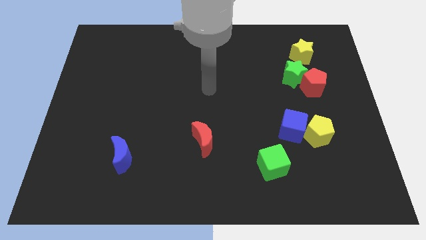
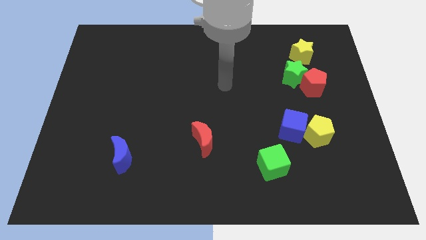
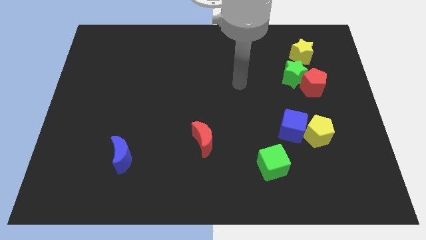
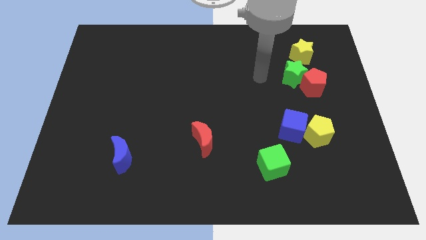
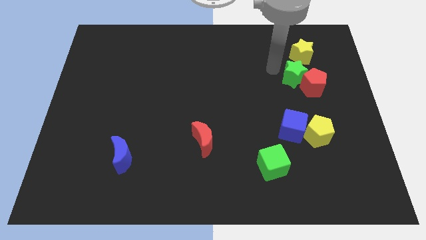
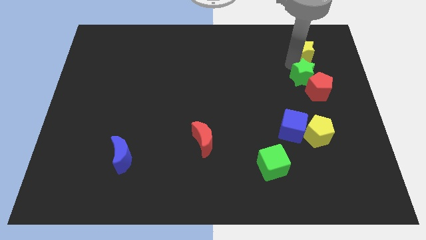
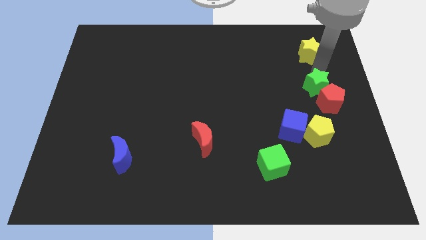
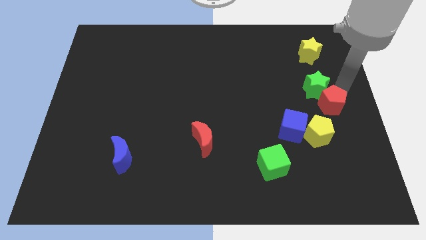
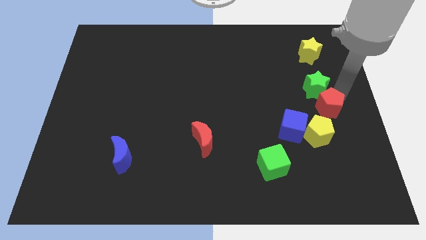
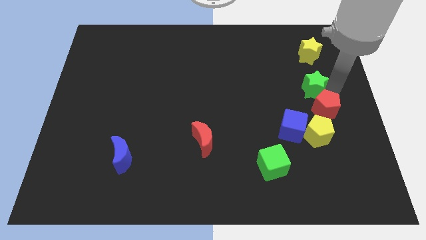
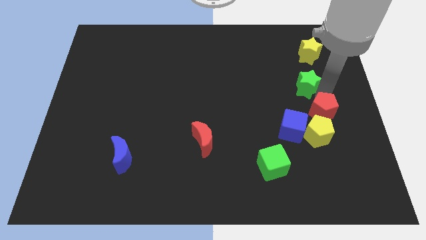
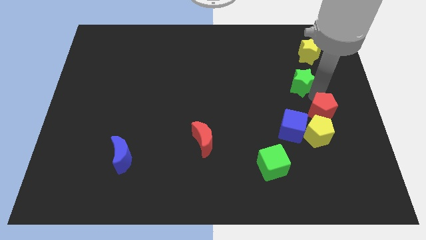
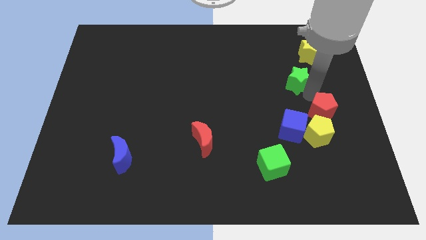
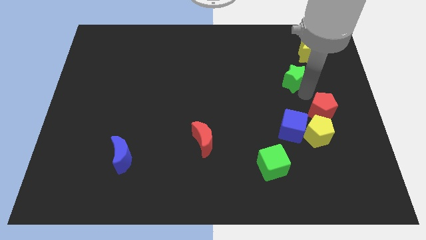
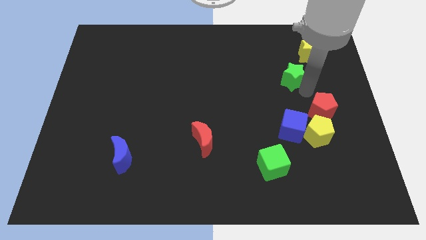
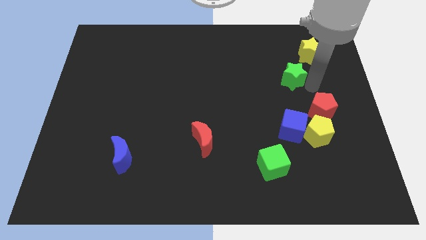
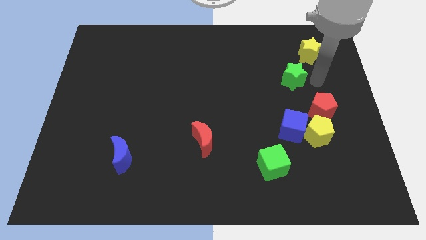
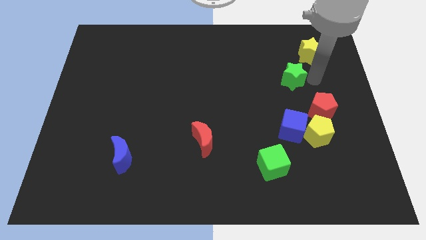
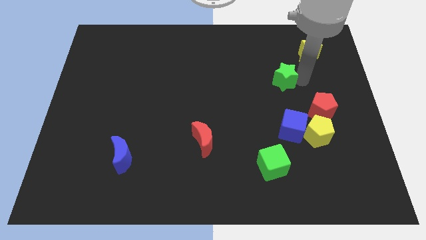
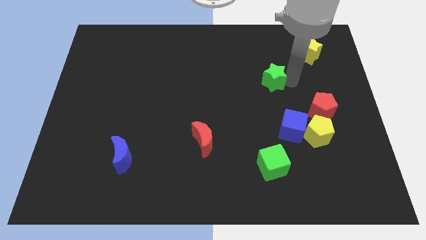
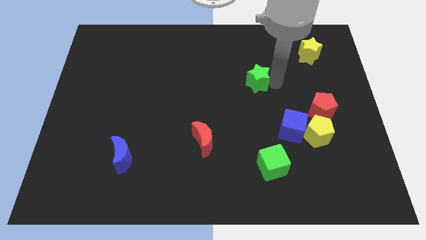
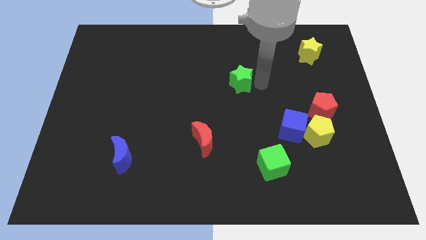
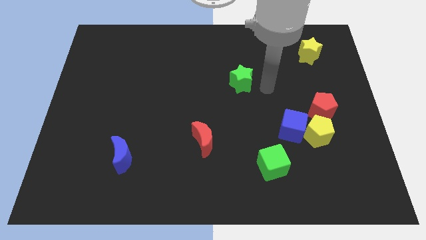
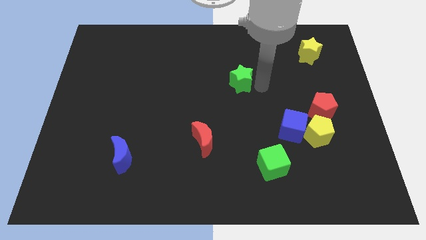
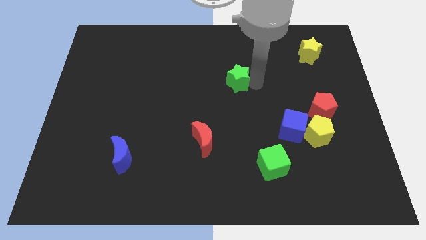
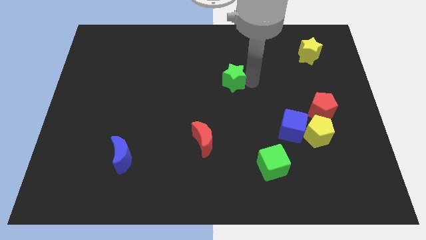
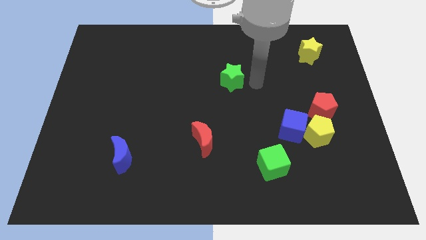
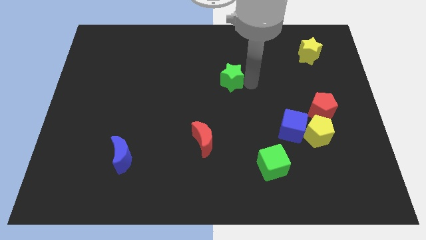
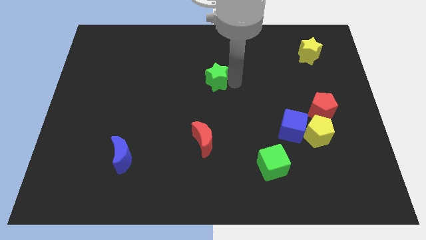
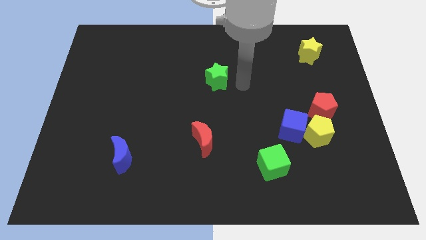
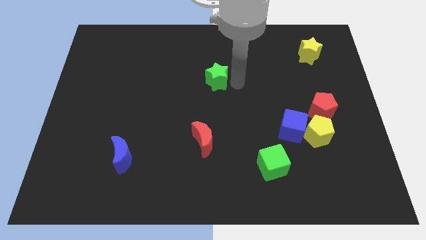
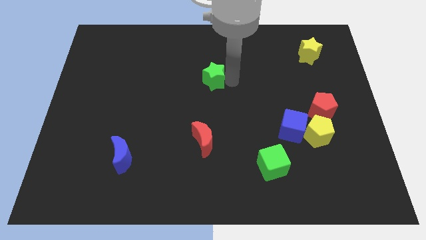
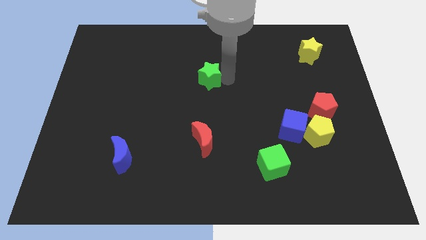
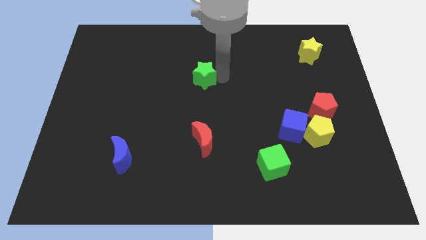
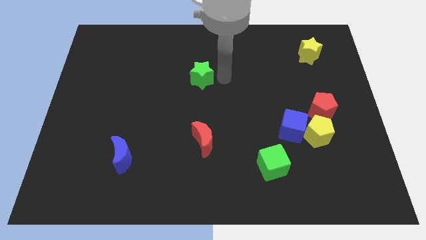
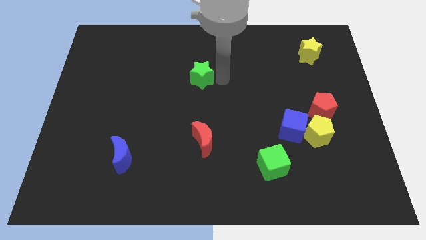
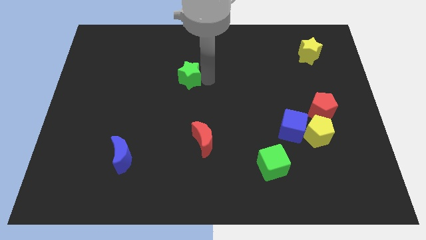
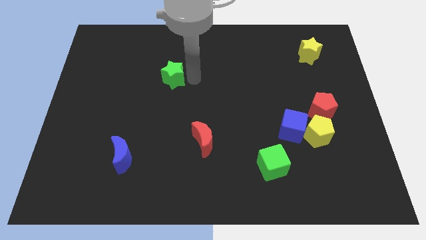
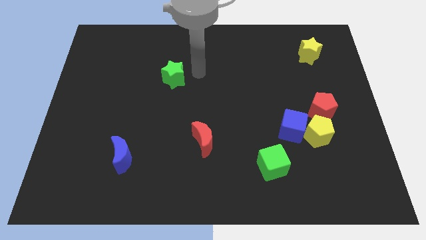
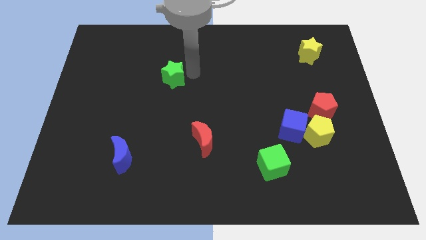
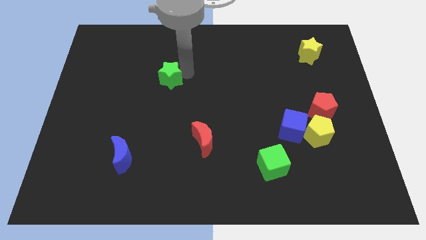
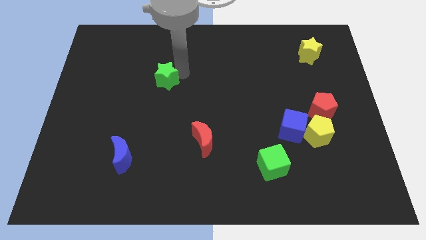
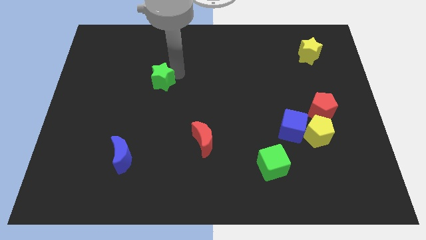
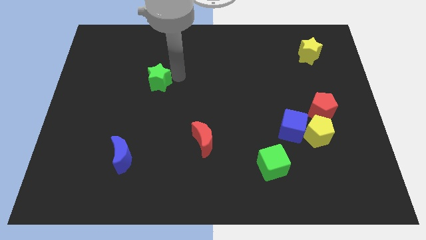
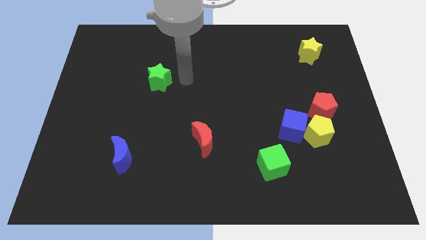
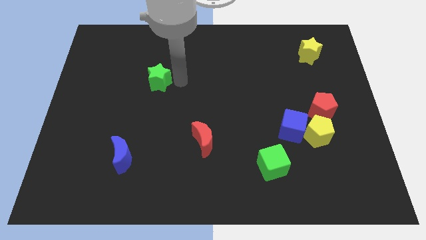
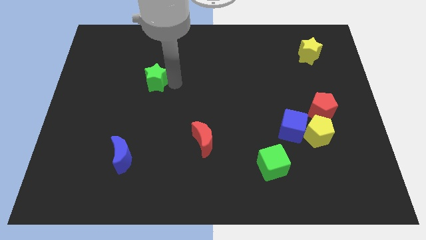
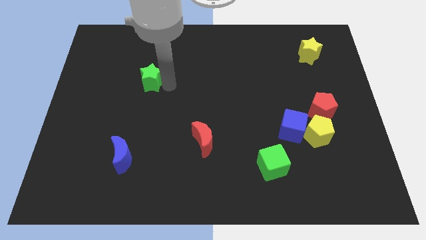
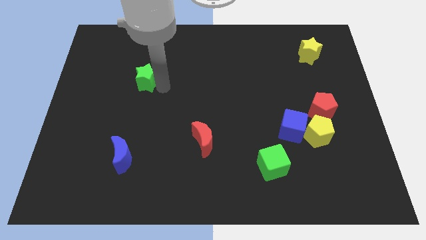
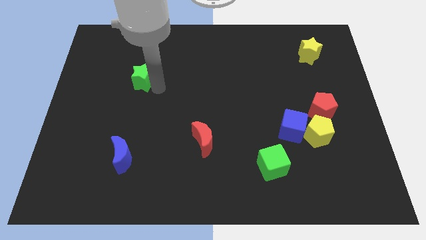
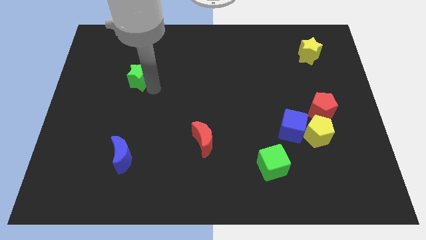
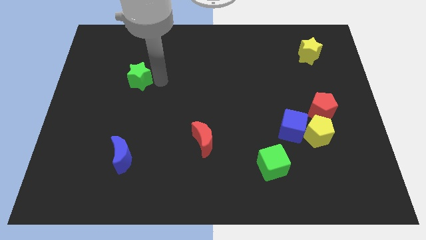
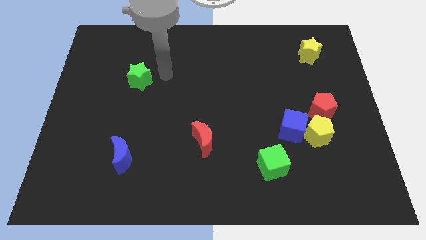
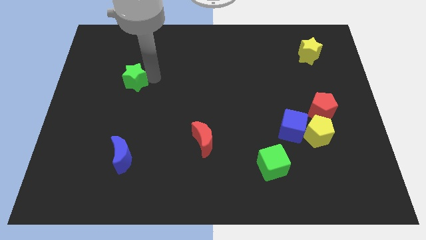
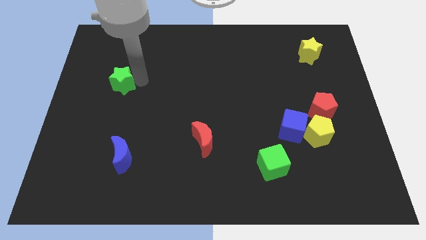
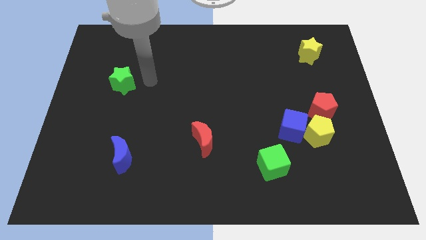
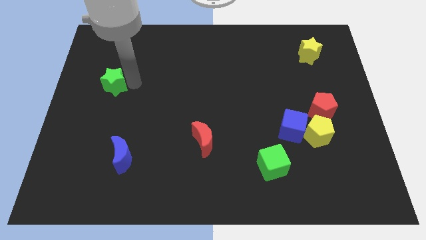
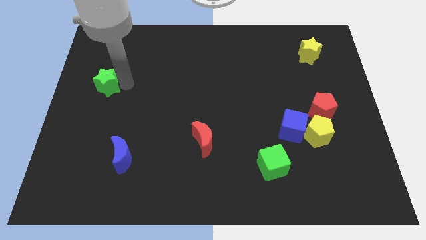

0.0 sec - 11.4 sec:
push the green star to the left side

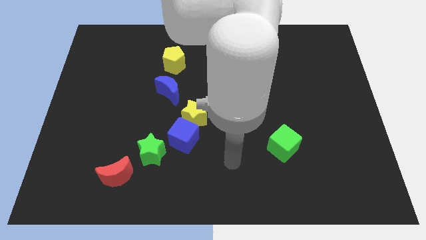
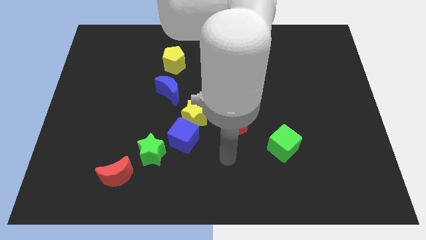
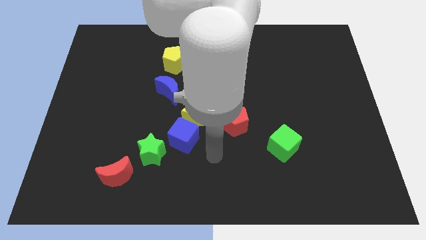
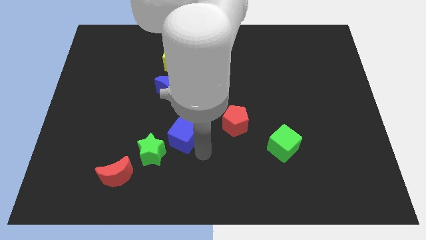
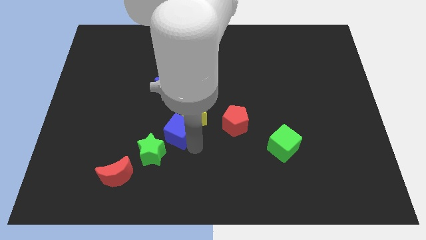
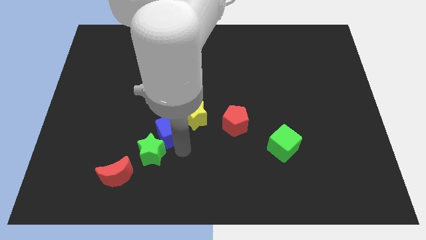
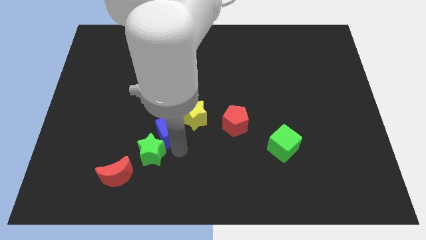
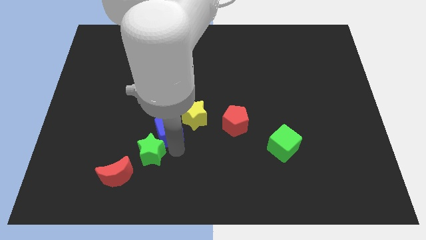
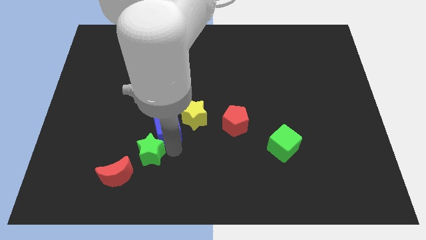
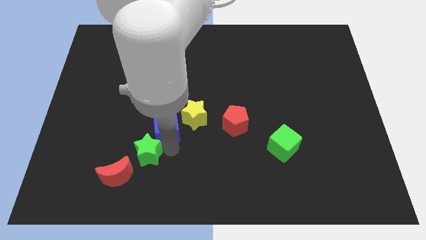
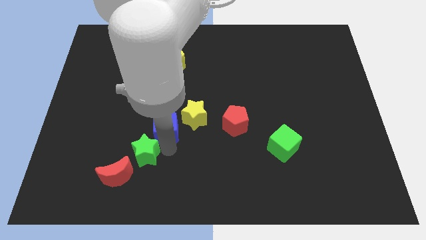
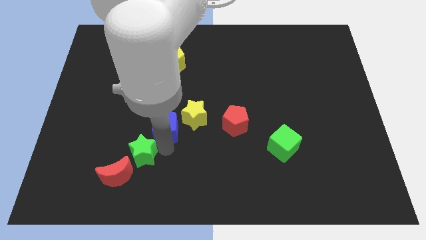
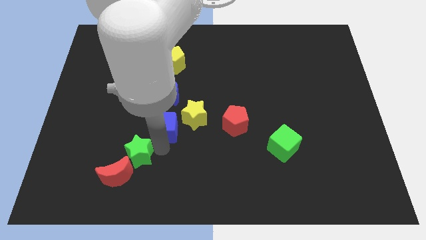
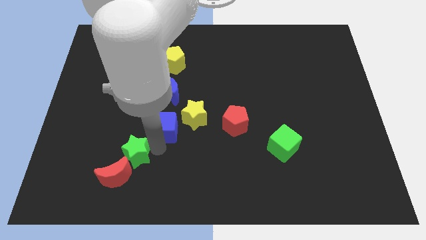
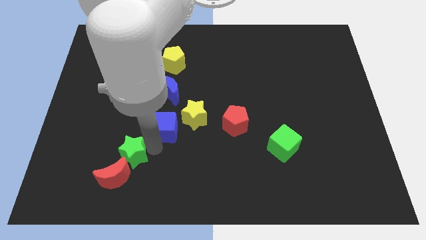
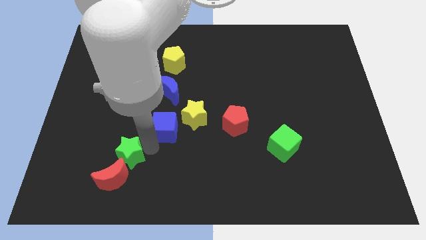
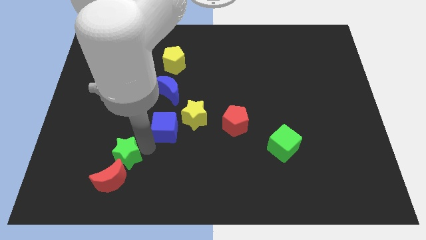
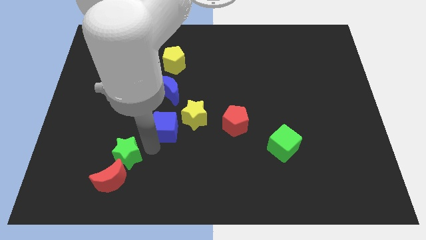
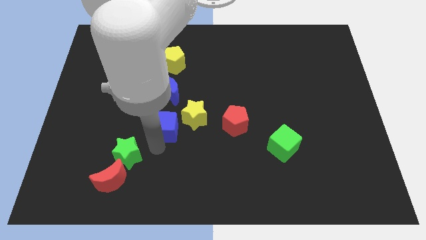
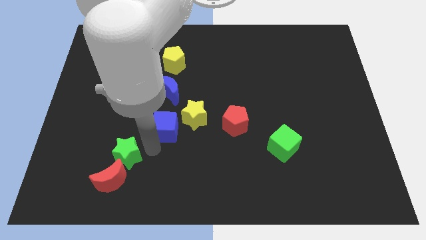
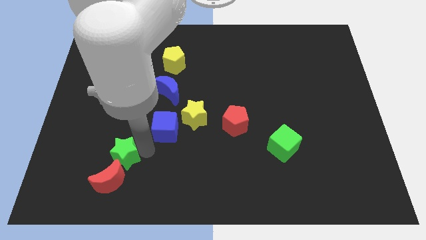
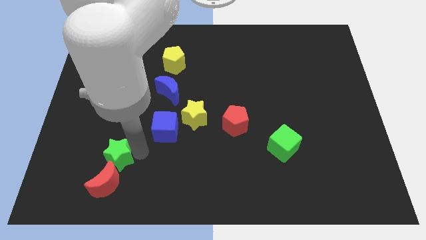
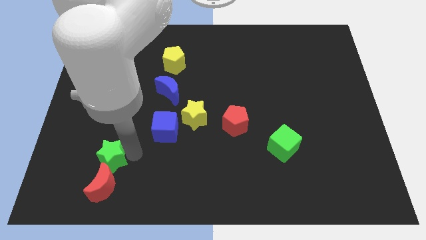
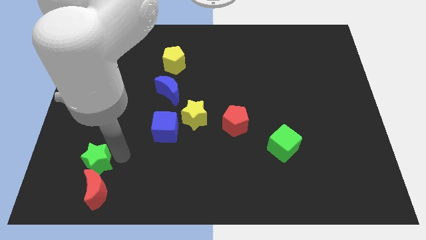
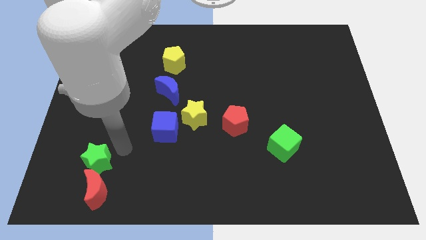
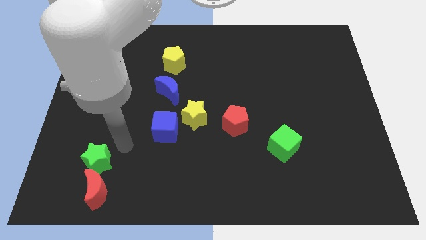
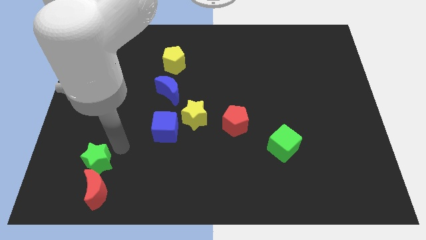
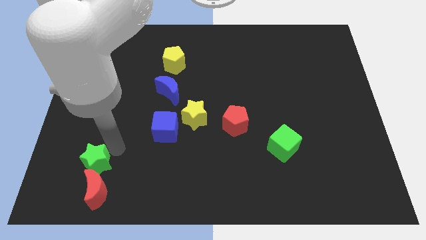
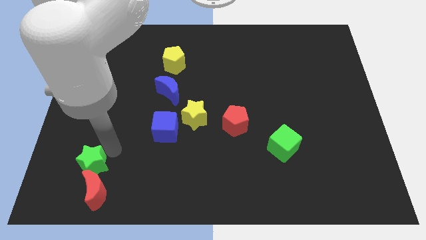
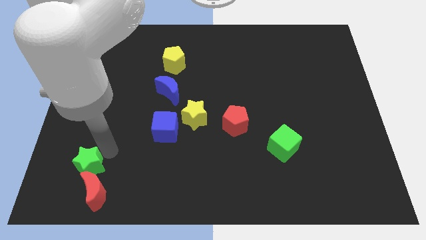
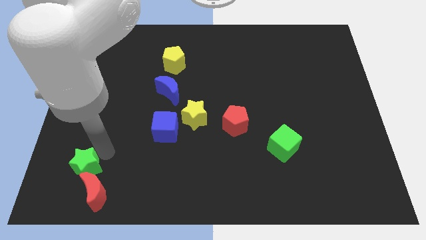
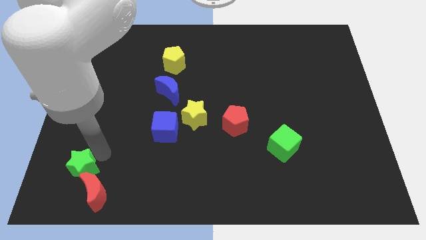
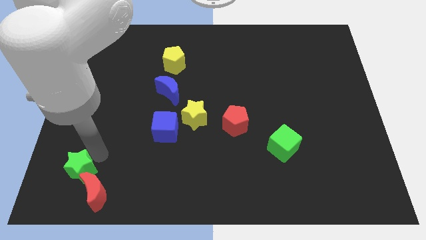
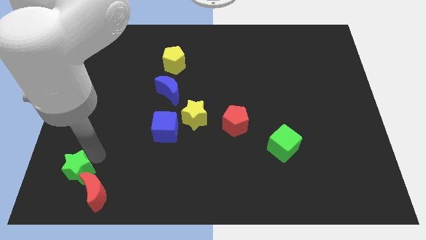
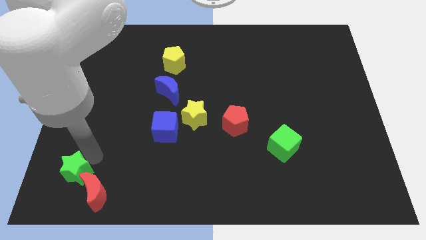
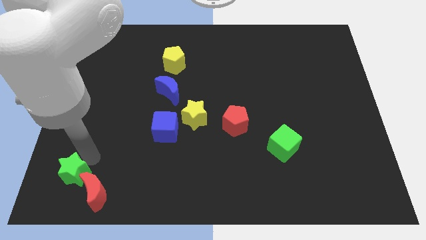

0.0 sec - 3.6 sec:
move the green star to the bottom left
